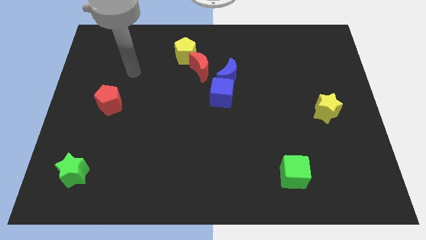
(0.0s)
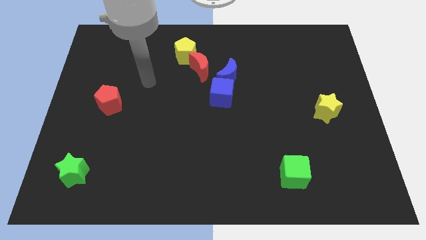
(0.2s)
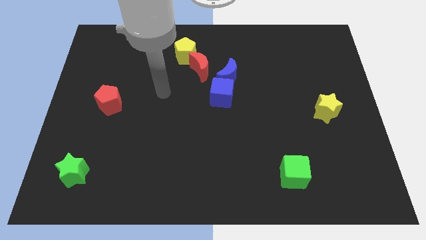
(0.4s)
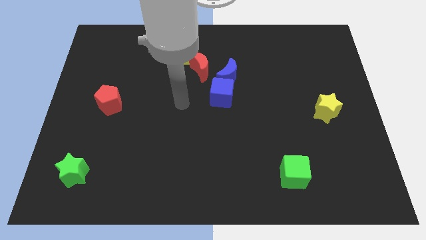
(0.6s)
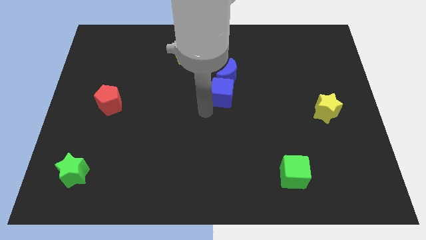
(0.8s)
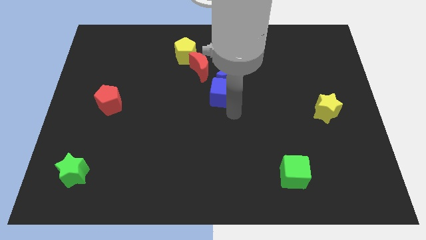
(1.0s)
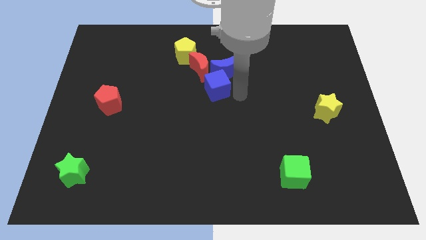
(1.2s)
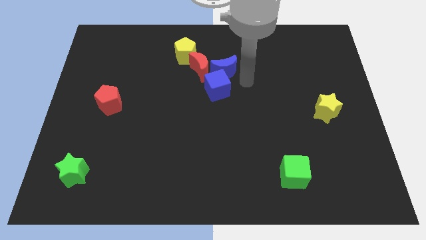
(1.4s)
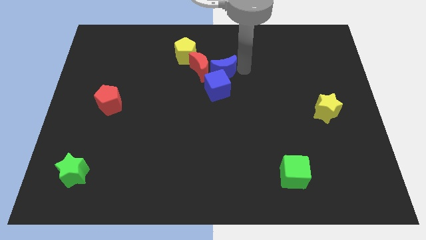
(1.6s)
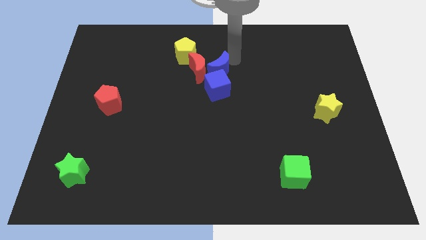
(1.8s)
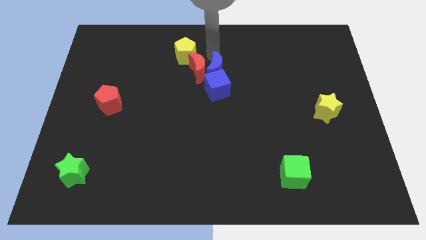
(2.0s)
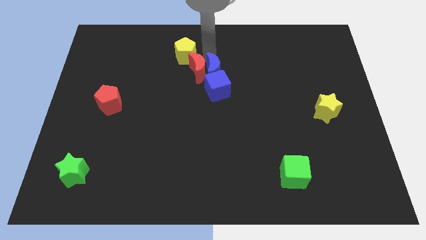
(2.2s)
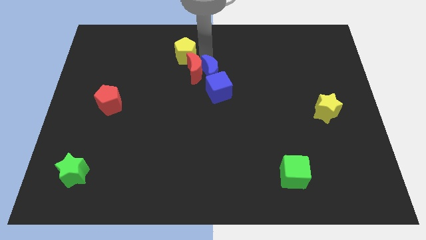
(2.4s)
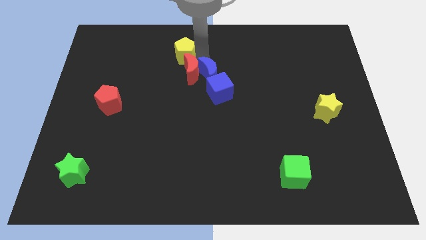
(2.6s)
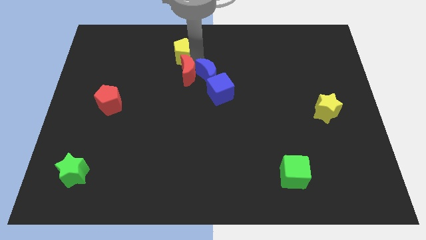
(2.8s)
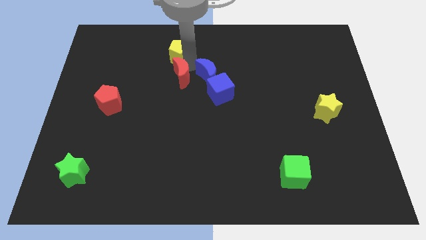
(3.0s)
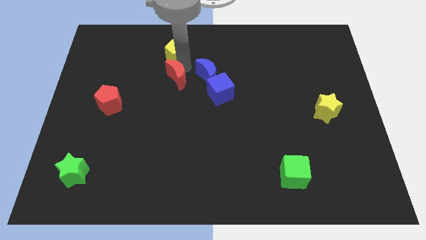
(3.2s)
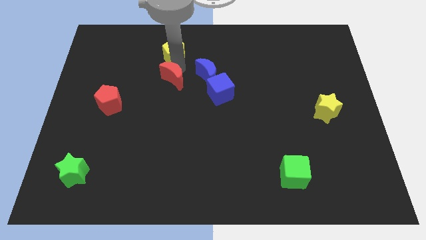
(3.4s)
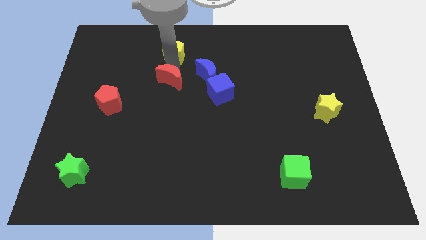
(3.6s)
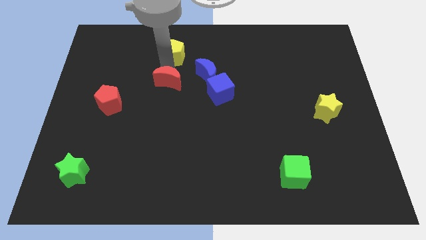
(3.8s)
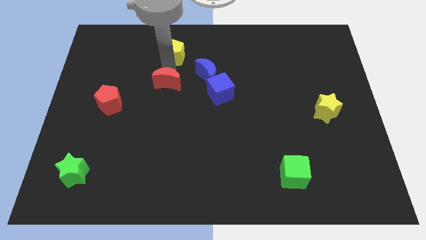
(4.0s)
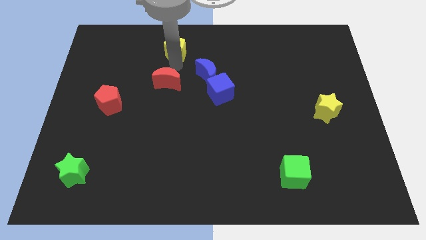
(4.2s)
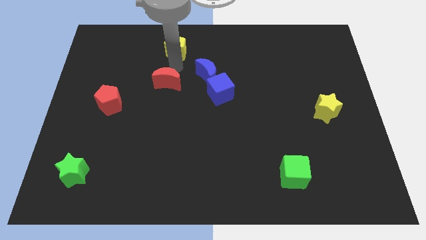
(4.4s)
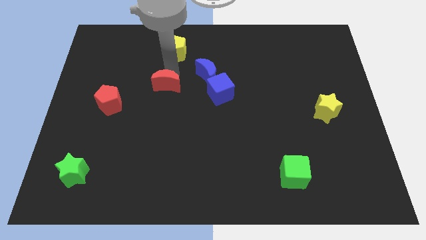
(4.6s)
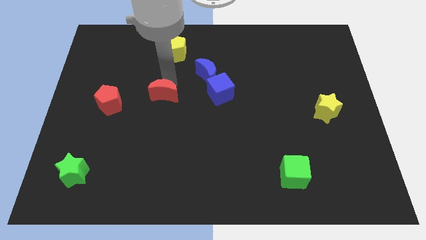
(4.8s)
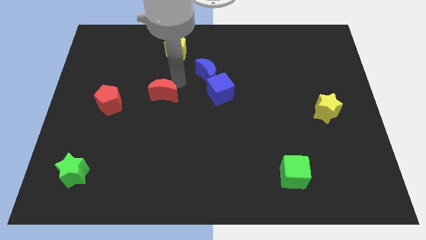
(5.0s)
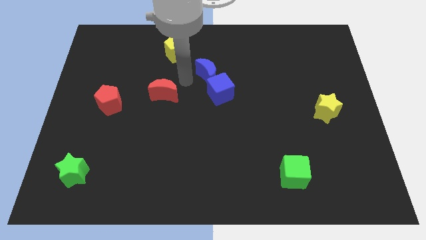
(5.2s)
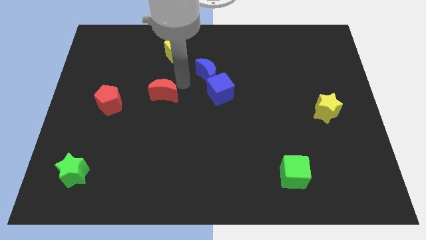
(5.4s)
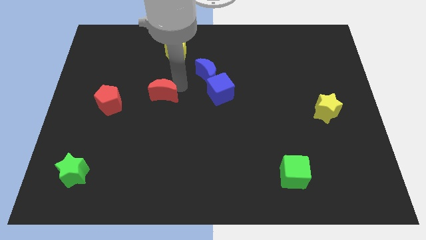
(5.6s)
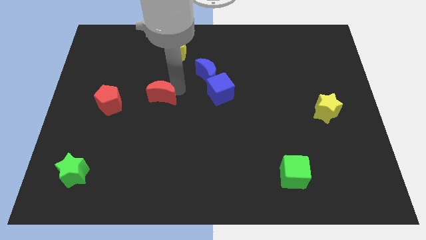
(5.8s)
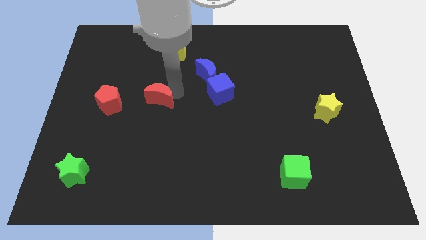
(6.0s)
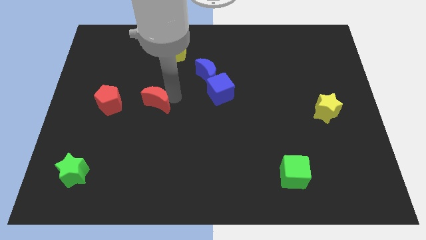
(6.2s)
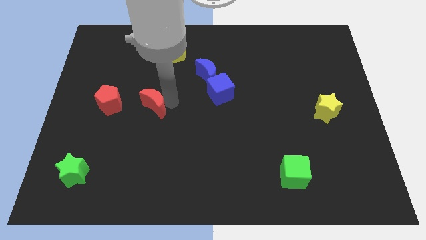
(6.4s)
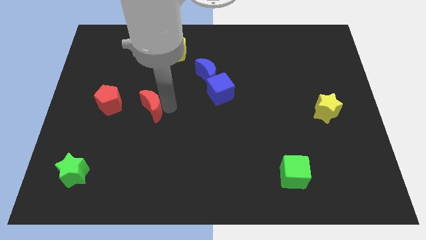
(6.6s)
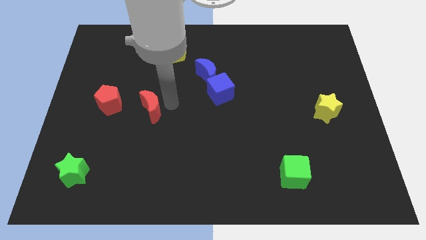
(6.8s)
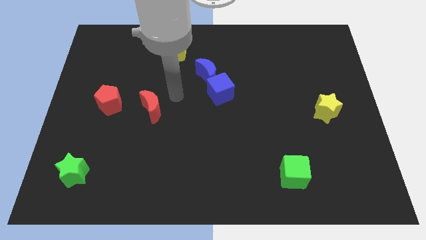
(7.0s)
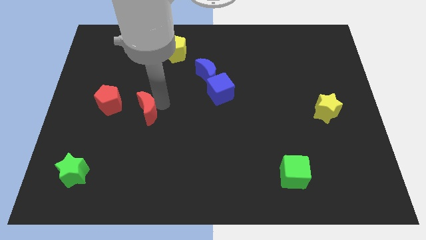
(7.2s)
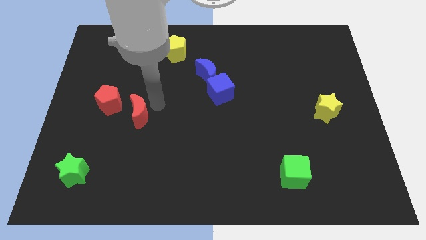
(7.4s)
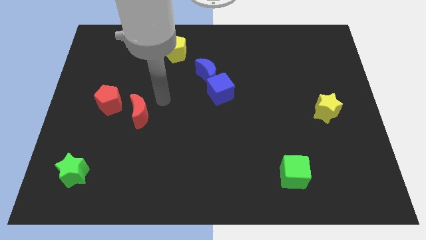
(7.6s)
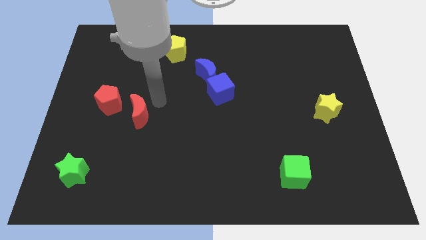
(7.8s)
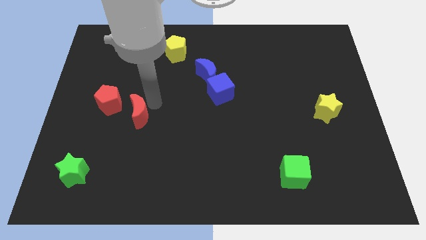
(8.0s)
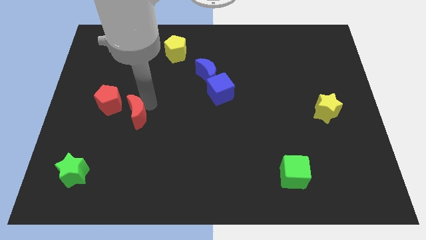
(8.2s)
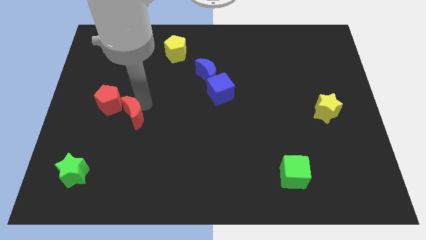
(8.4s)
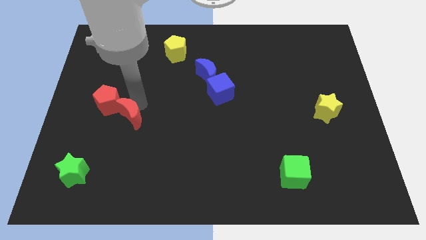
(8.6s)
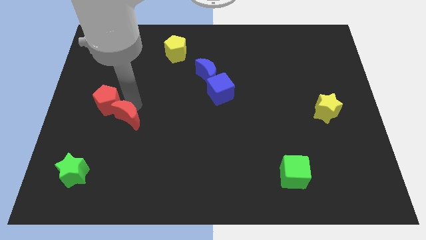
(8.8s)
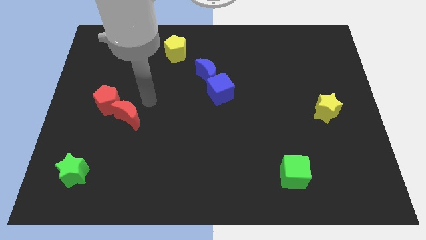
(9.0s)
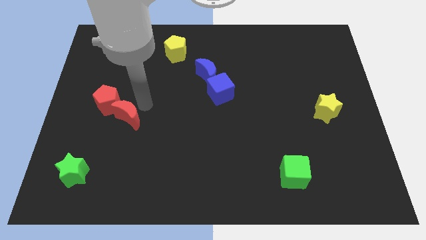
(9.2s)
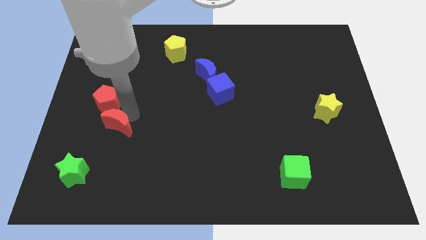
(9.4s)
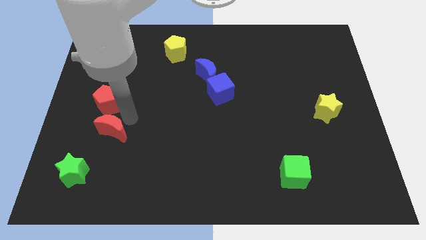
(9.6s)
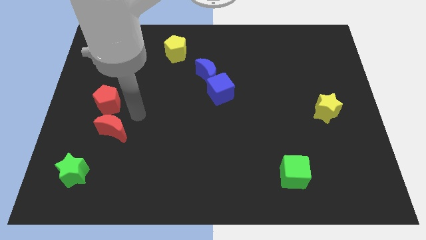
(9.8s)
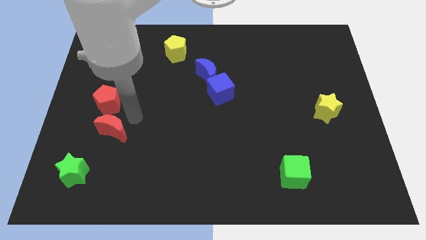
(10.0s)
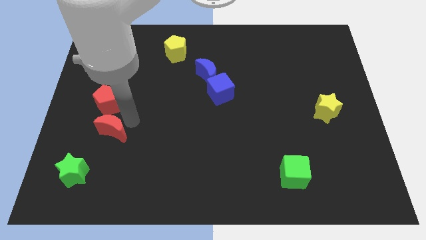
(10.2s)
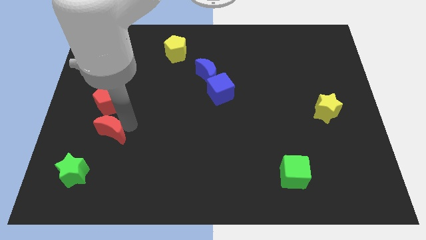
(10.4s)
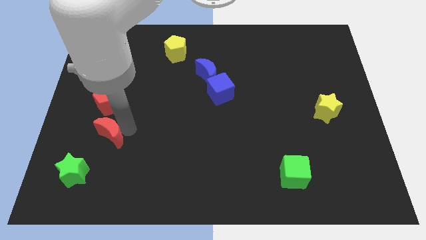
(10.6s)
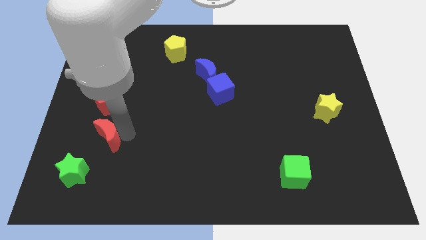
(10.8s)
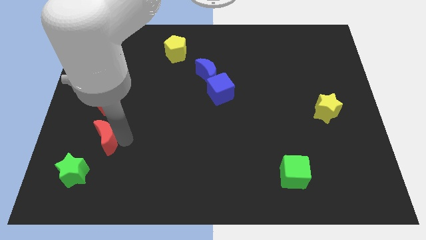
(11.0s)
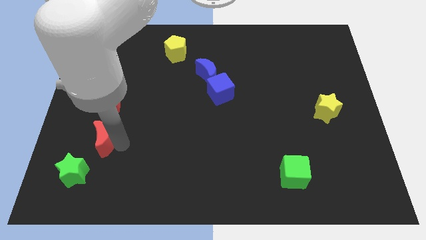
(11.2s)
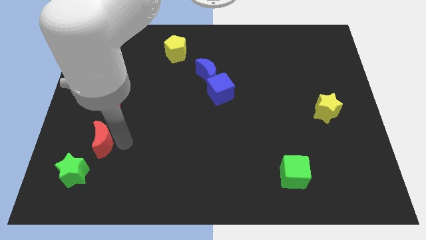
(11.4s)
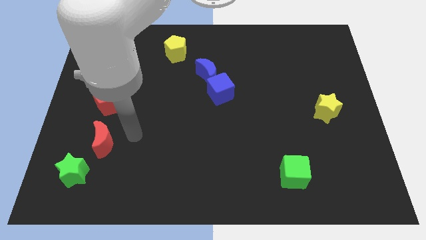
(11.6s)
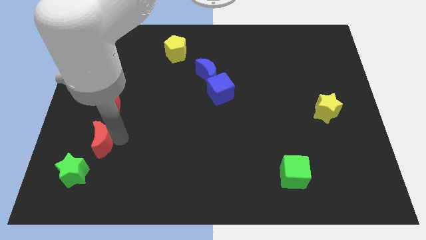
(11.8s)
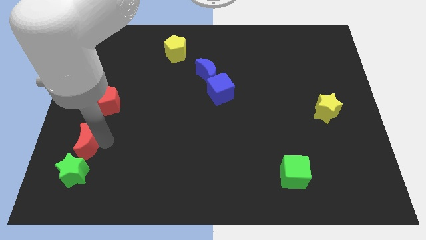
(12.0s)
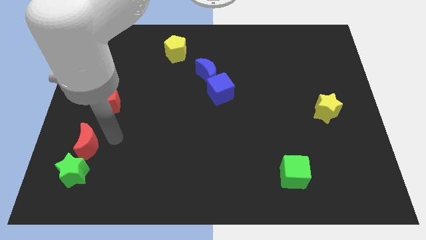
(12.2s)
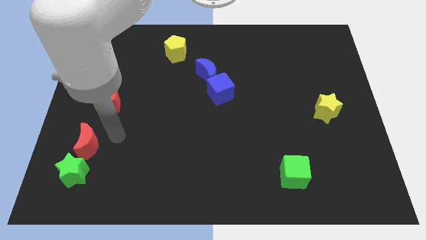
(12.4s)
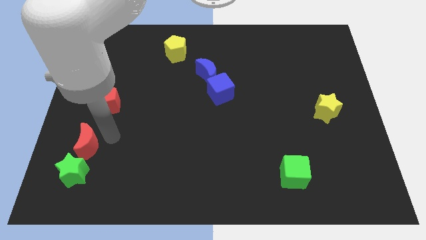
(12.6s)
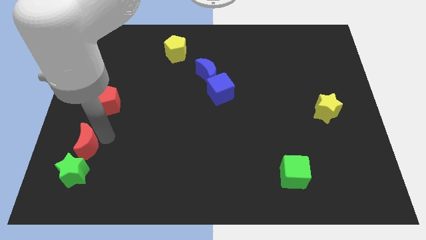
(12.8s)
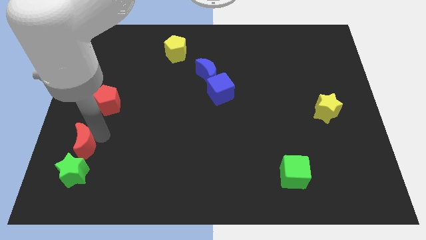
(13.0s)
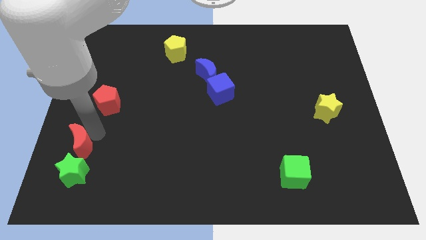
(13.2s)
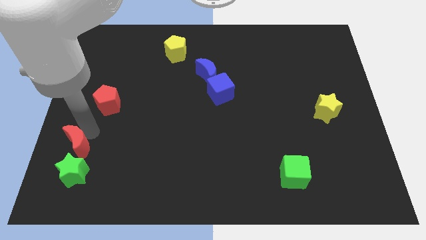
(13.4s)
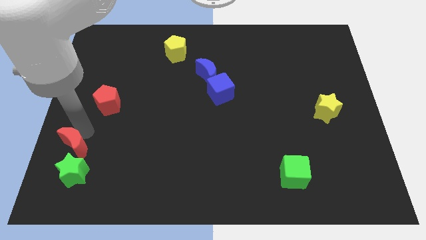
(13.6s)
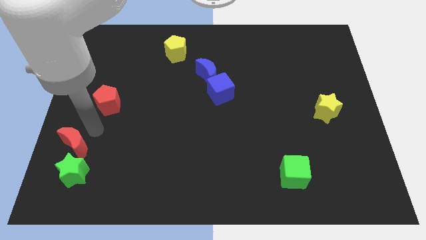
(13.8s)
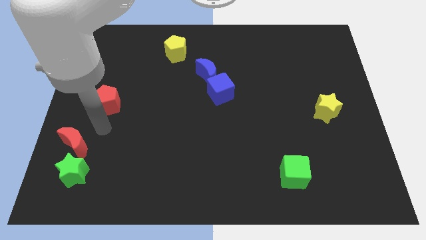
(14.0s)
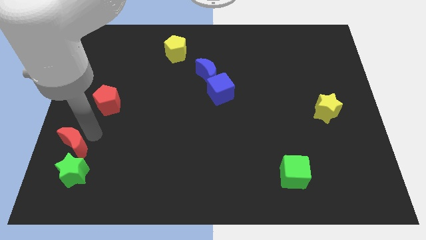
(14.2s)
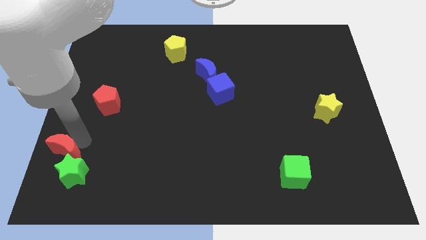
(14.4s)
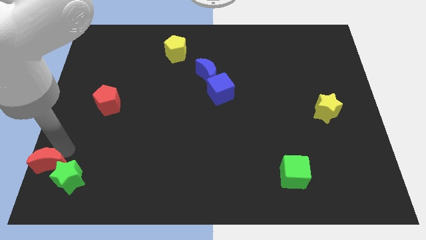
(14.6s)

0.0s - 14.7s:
put the red moon to the bottom left corner
